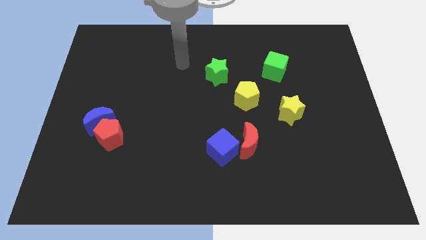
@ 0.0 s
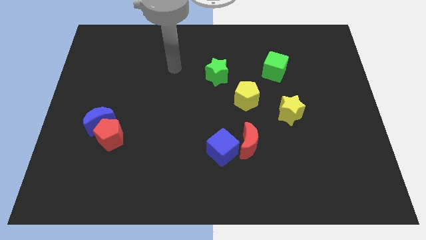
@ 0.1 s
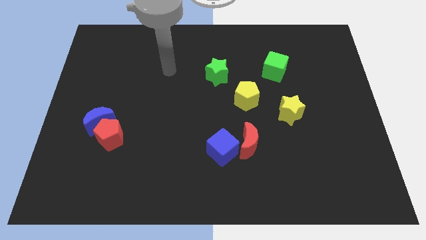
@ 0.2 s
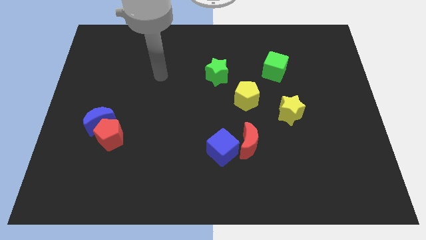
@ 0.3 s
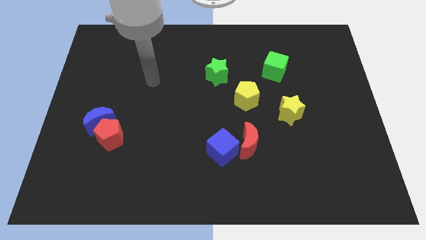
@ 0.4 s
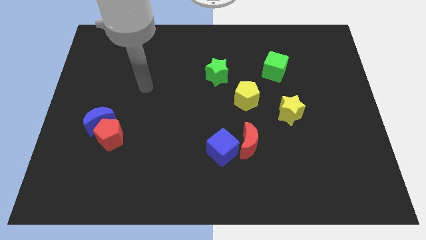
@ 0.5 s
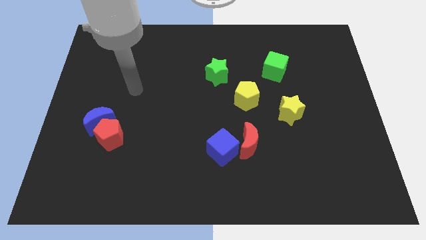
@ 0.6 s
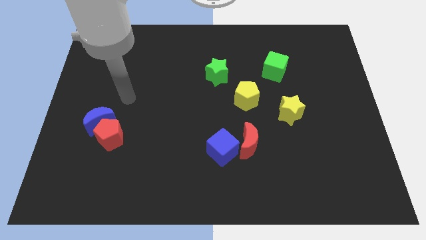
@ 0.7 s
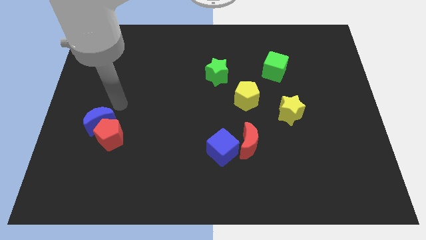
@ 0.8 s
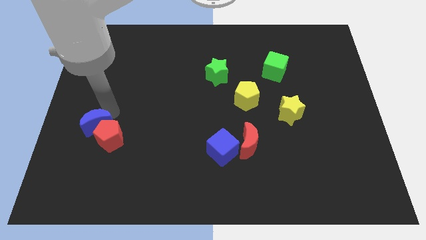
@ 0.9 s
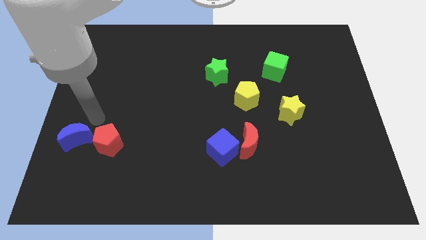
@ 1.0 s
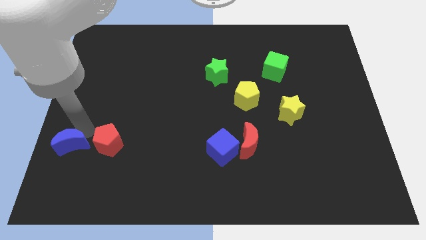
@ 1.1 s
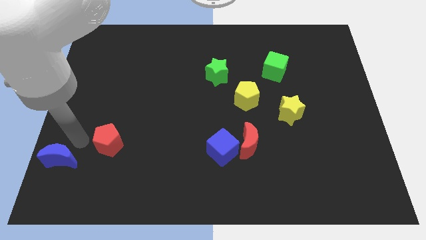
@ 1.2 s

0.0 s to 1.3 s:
pull the red pentagon apart from the blue moon

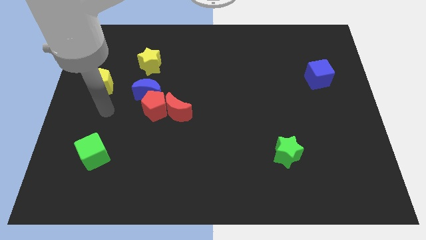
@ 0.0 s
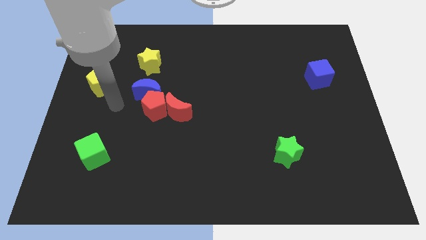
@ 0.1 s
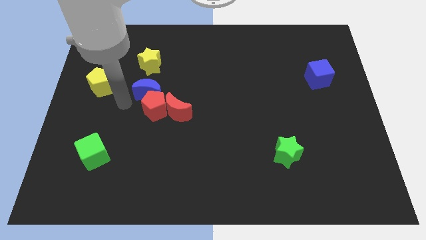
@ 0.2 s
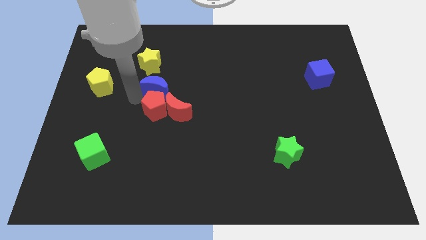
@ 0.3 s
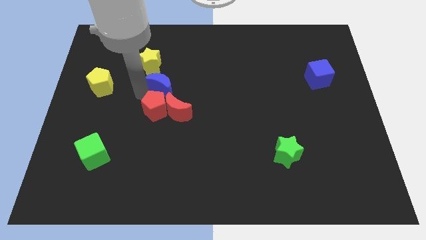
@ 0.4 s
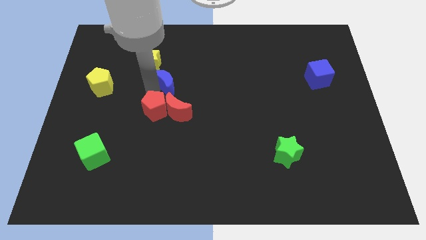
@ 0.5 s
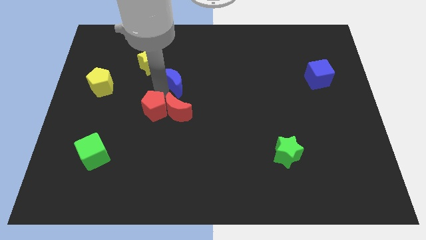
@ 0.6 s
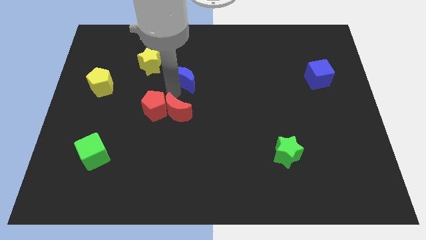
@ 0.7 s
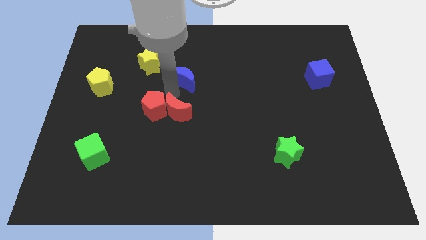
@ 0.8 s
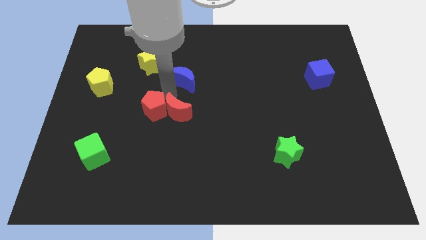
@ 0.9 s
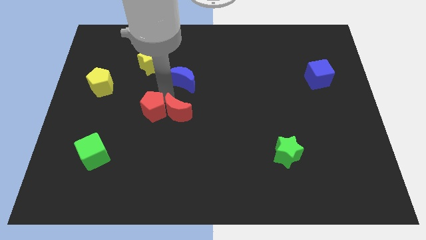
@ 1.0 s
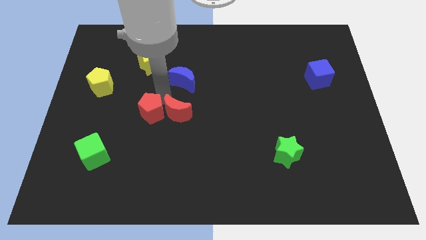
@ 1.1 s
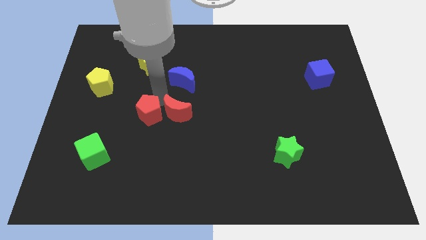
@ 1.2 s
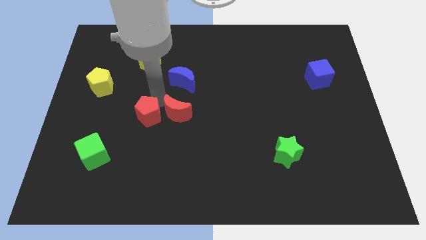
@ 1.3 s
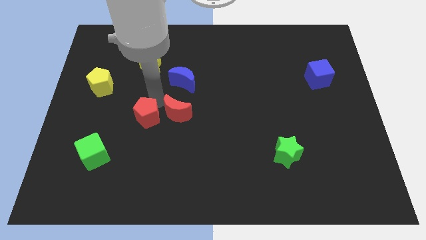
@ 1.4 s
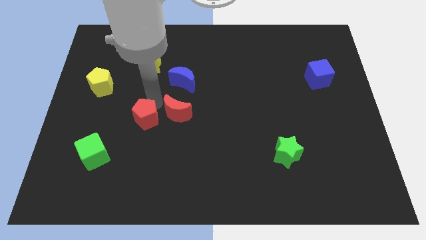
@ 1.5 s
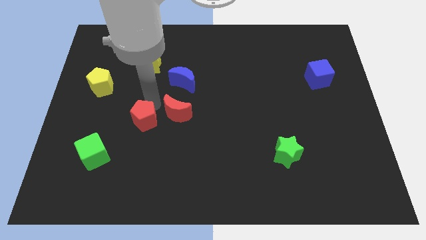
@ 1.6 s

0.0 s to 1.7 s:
move the red pentagon away from the red moon and blue moon

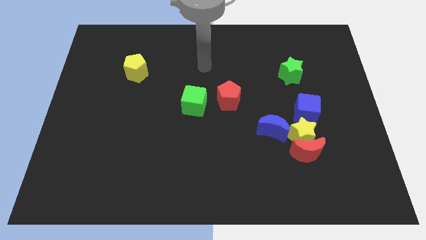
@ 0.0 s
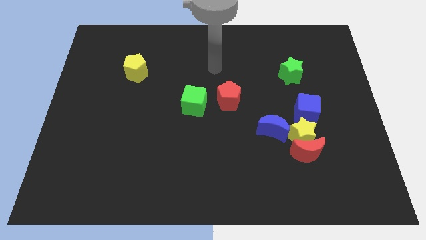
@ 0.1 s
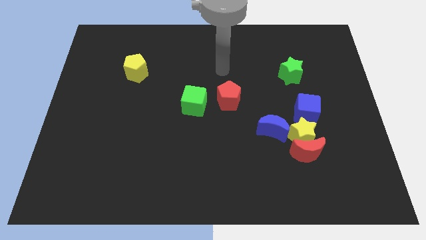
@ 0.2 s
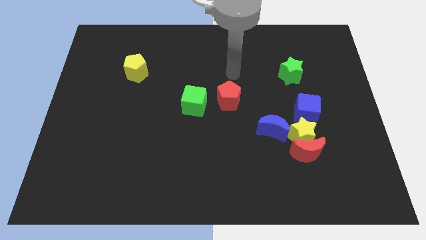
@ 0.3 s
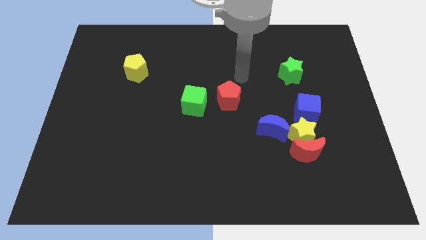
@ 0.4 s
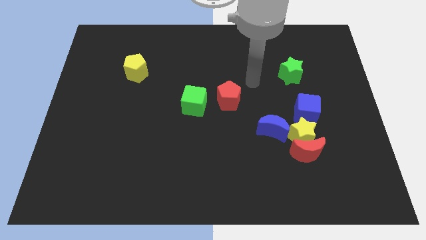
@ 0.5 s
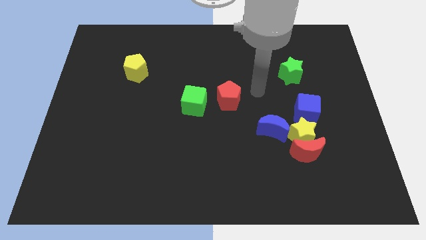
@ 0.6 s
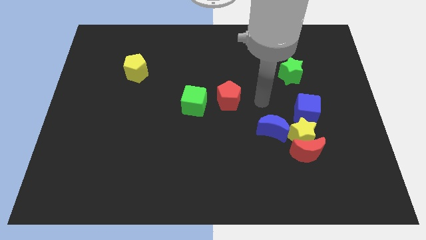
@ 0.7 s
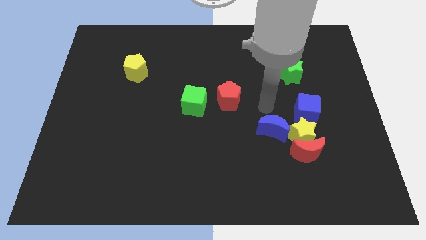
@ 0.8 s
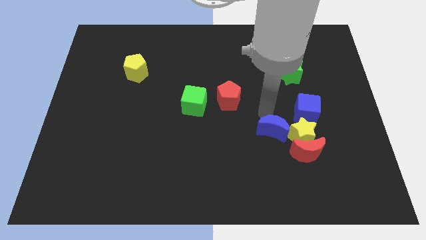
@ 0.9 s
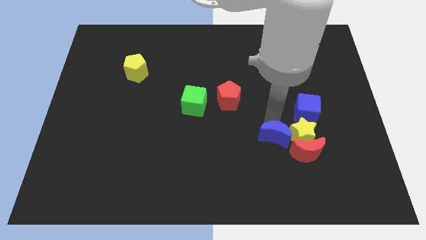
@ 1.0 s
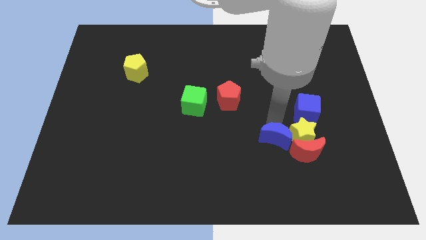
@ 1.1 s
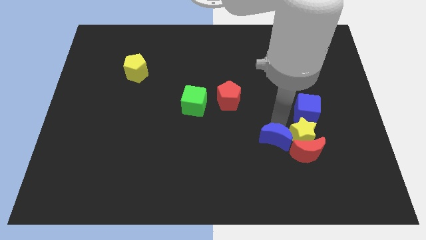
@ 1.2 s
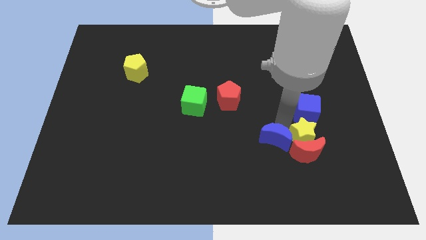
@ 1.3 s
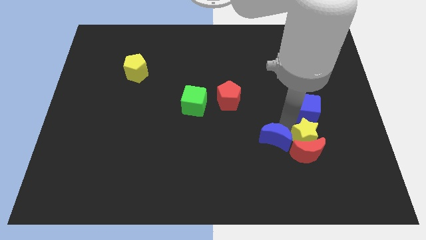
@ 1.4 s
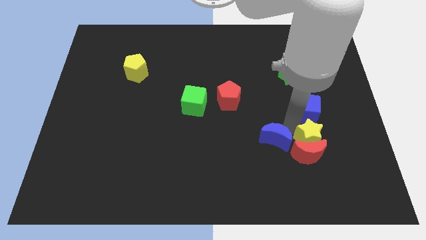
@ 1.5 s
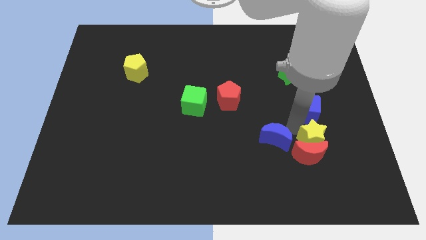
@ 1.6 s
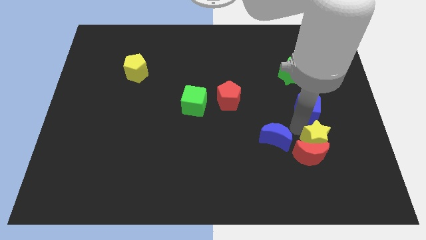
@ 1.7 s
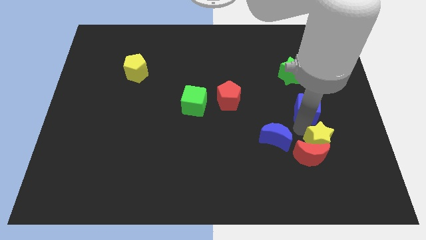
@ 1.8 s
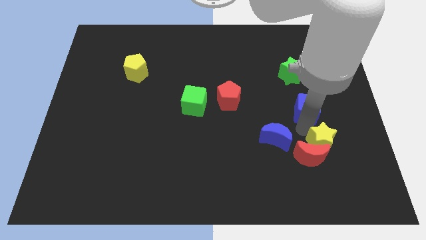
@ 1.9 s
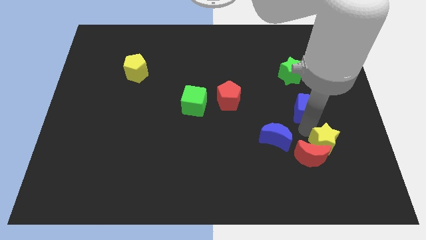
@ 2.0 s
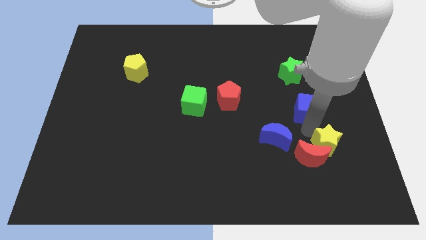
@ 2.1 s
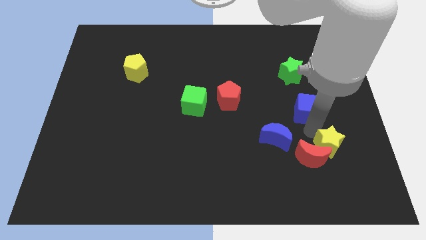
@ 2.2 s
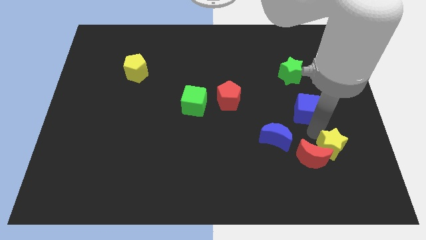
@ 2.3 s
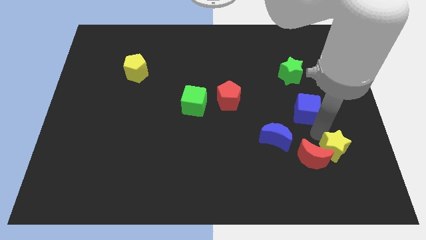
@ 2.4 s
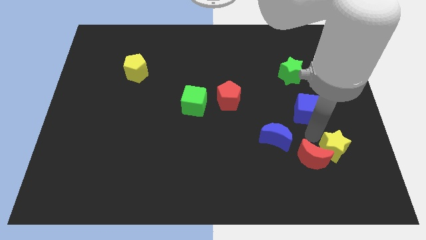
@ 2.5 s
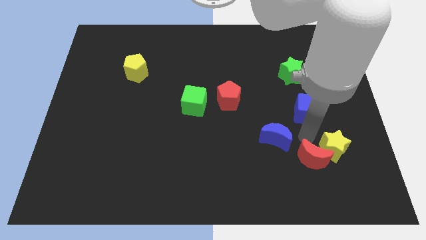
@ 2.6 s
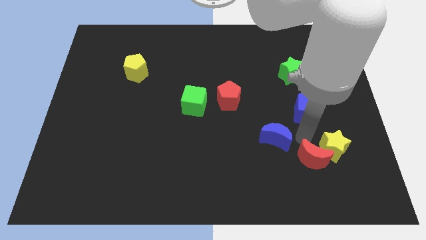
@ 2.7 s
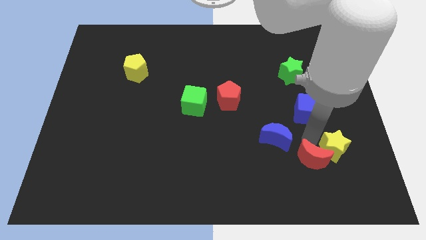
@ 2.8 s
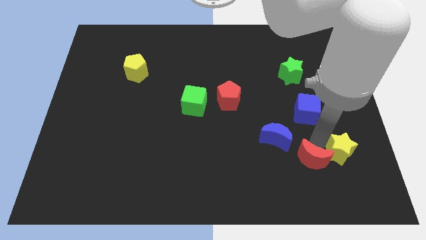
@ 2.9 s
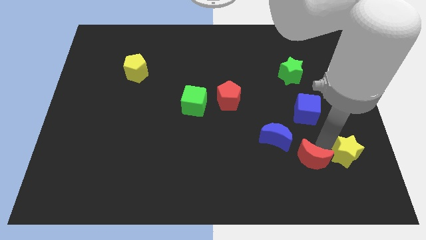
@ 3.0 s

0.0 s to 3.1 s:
separate the yellow star from the red moon, blue moon, and blue cube

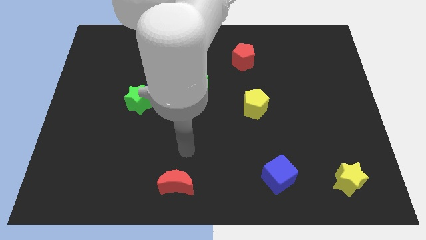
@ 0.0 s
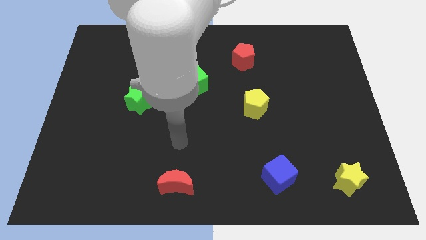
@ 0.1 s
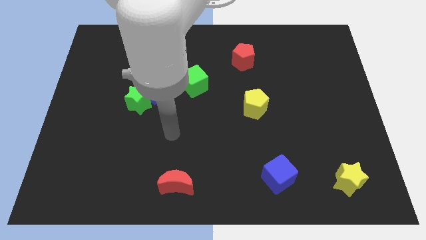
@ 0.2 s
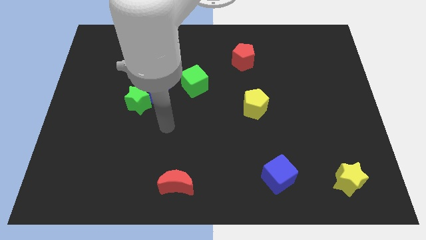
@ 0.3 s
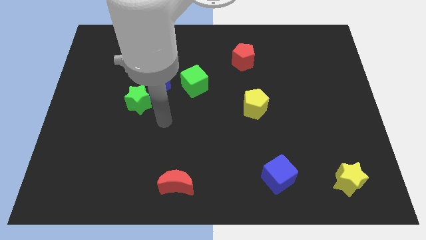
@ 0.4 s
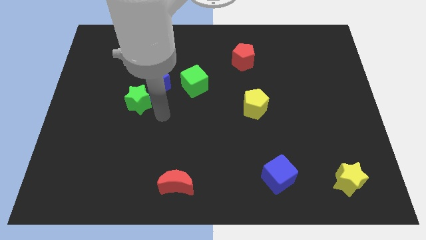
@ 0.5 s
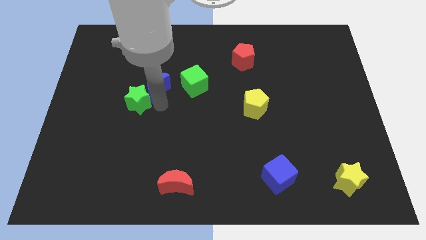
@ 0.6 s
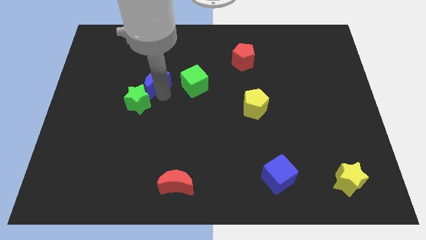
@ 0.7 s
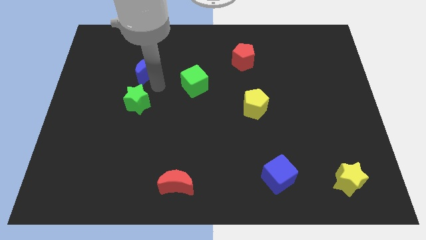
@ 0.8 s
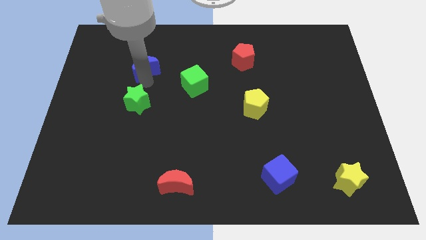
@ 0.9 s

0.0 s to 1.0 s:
pull the green star apart from the blue moon

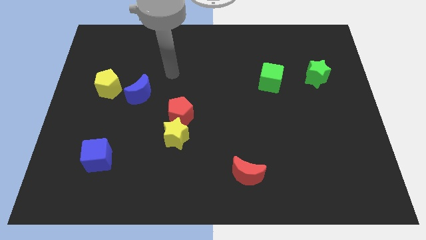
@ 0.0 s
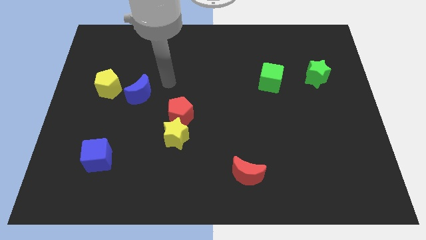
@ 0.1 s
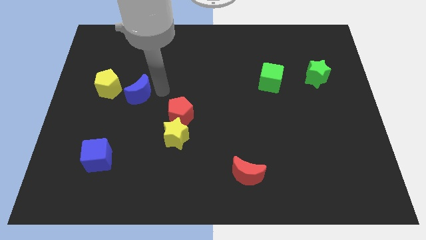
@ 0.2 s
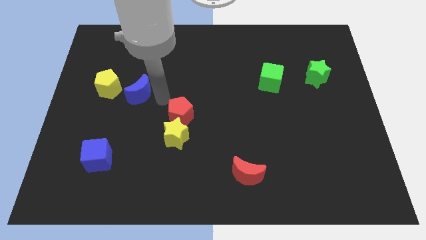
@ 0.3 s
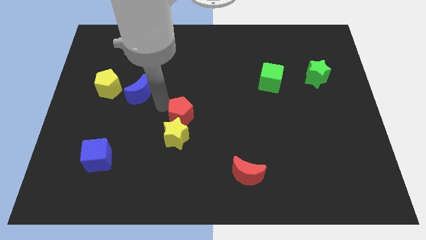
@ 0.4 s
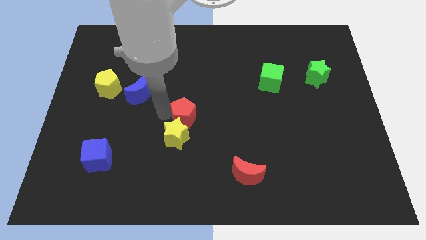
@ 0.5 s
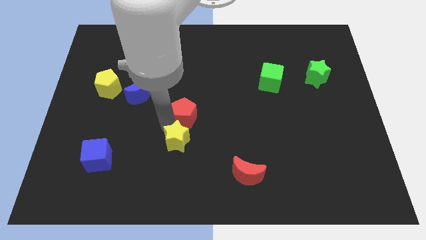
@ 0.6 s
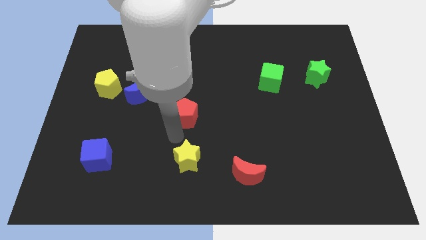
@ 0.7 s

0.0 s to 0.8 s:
move the red pentagon away from the yellow star

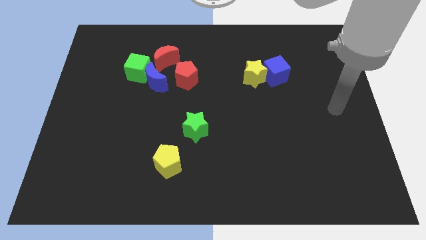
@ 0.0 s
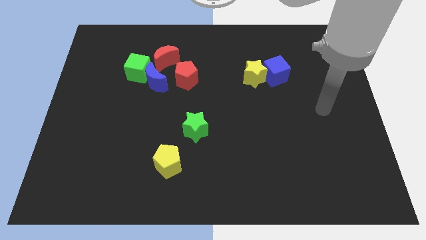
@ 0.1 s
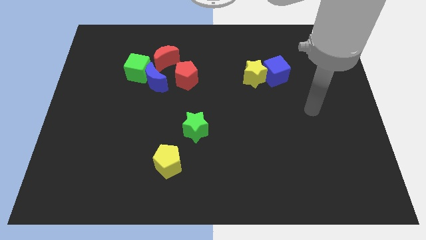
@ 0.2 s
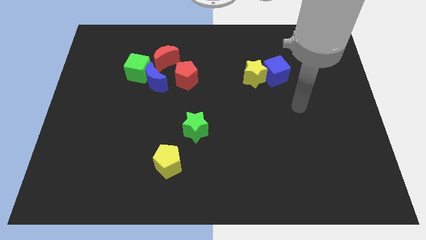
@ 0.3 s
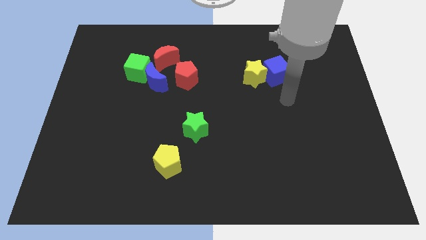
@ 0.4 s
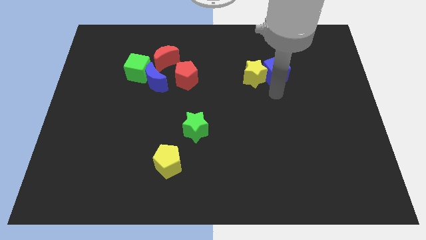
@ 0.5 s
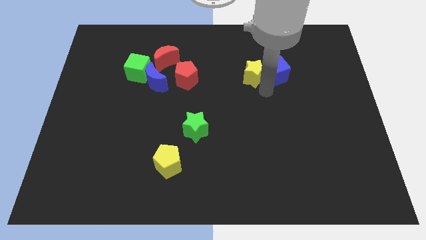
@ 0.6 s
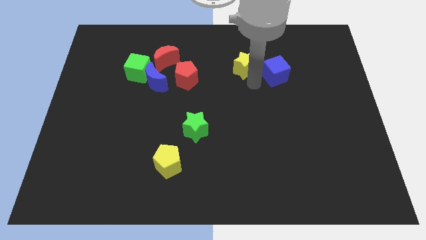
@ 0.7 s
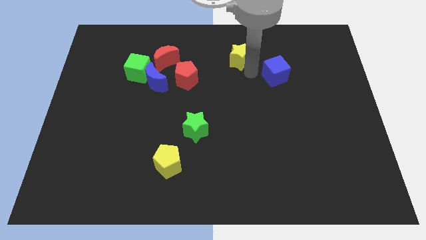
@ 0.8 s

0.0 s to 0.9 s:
pull the blue cube apart from the yellow star

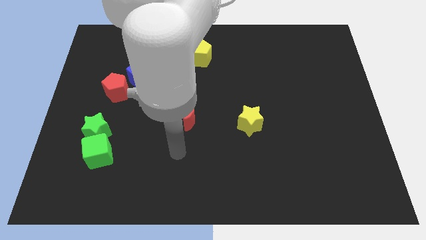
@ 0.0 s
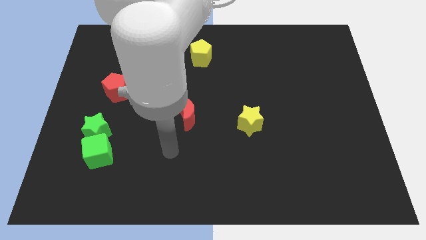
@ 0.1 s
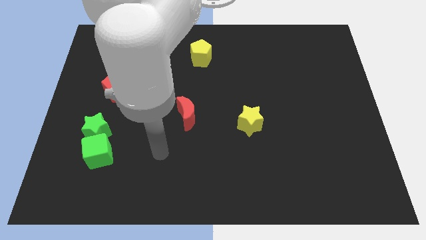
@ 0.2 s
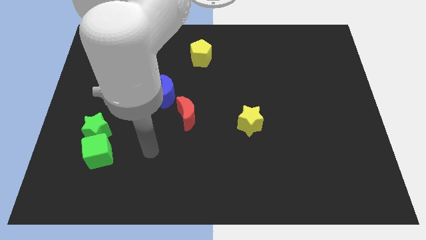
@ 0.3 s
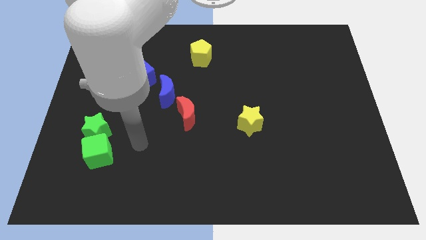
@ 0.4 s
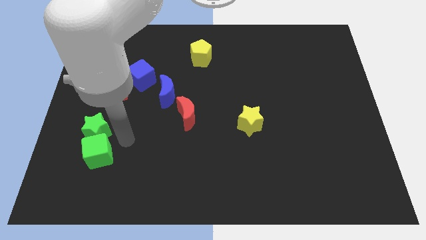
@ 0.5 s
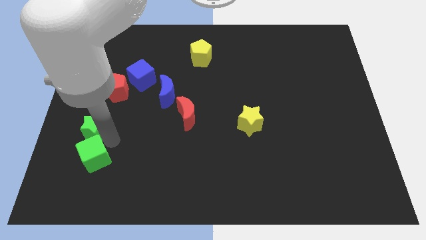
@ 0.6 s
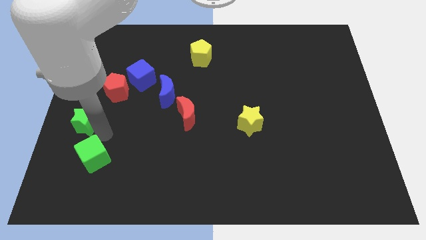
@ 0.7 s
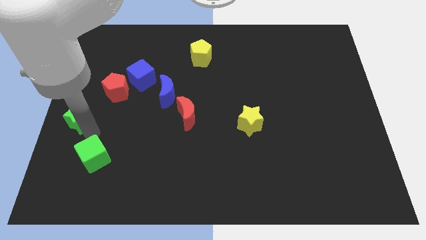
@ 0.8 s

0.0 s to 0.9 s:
move the green cube away from the green star
